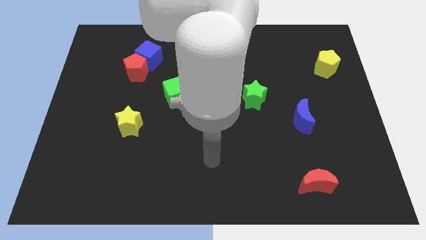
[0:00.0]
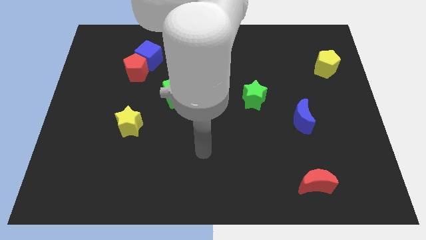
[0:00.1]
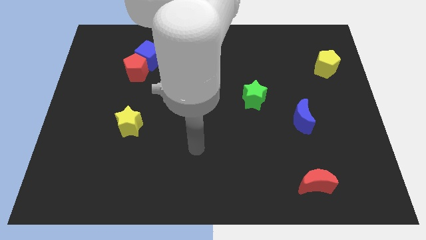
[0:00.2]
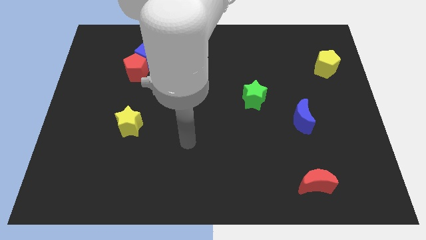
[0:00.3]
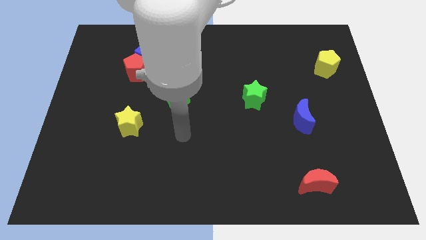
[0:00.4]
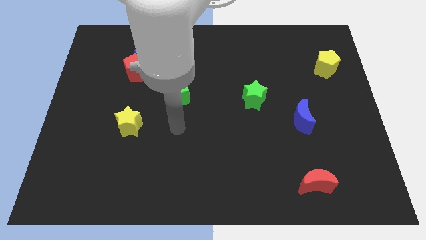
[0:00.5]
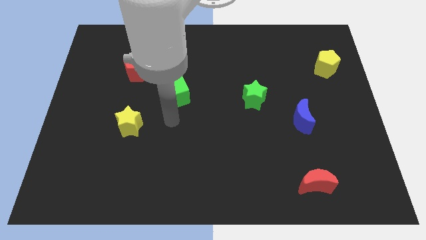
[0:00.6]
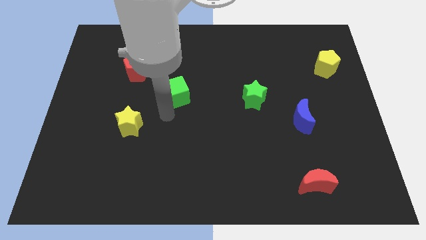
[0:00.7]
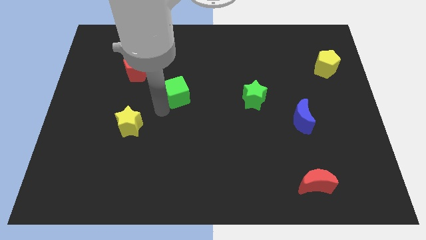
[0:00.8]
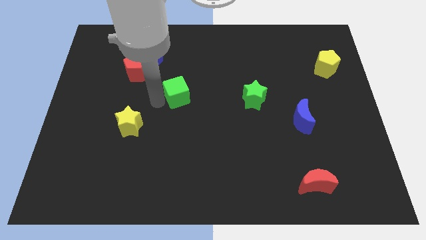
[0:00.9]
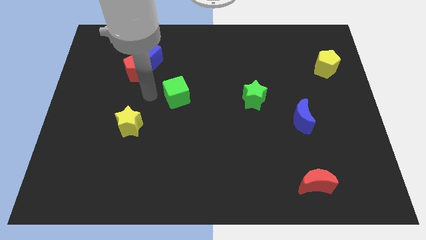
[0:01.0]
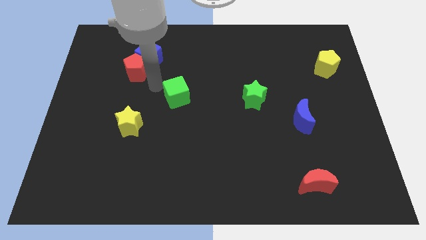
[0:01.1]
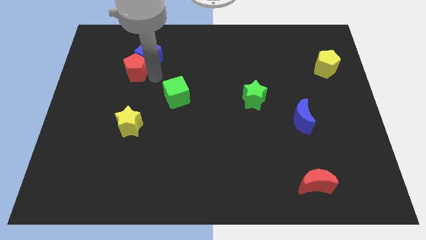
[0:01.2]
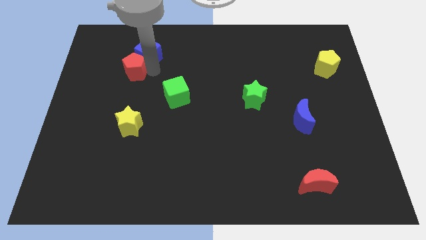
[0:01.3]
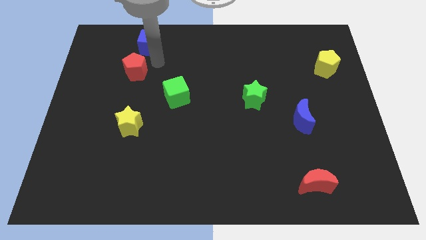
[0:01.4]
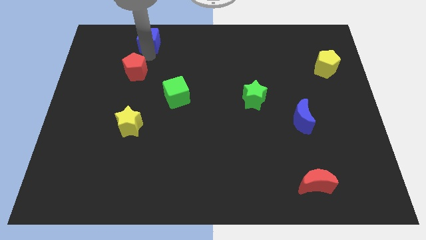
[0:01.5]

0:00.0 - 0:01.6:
pull the red pentagon apart from the blue cube

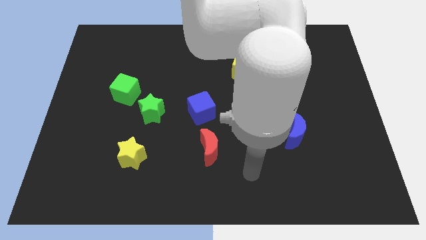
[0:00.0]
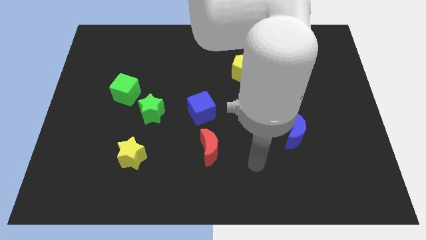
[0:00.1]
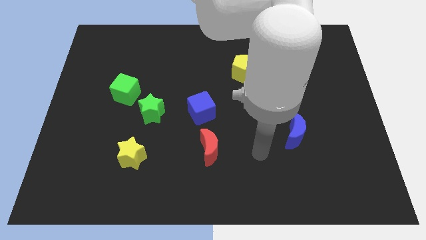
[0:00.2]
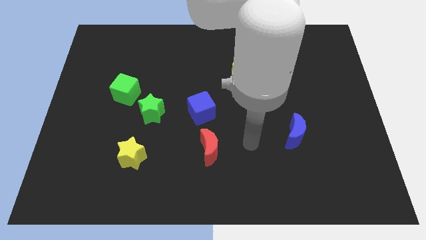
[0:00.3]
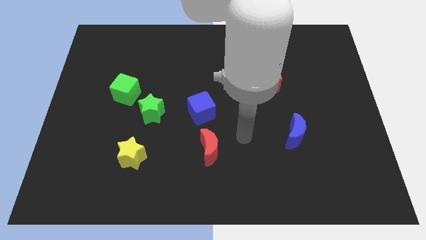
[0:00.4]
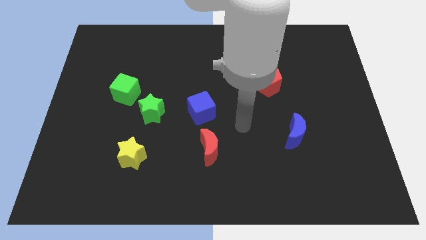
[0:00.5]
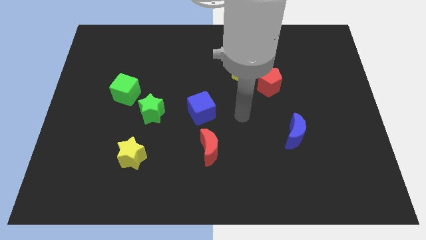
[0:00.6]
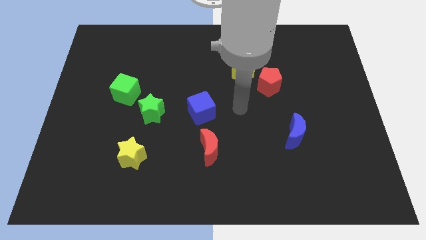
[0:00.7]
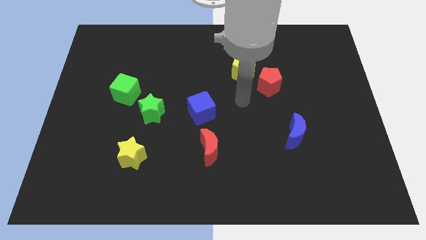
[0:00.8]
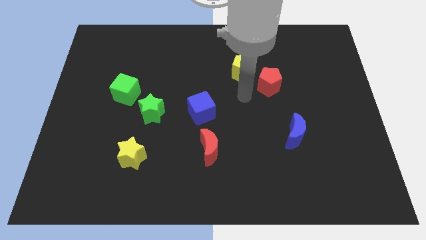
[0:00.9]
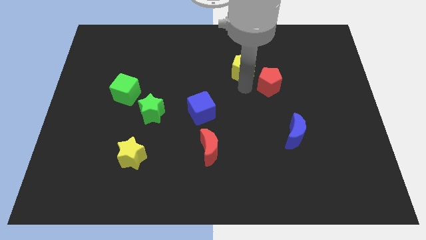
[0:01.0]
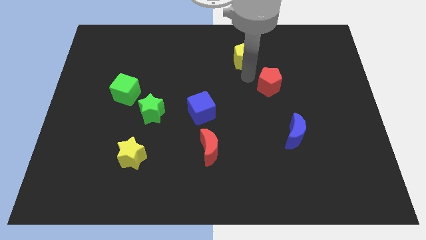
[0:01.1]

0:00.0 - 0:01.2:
move the red pentagon away from the yellow pentagon

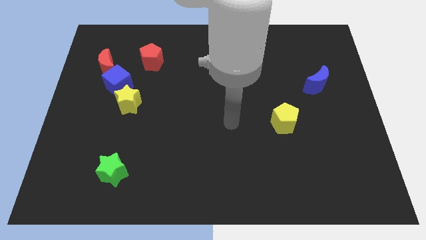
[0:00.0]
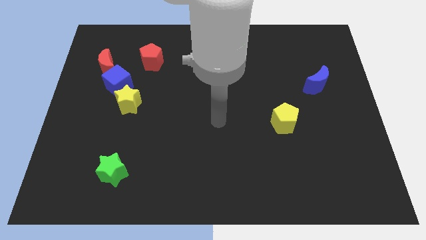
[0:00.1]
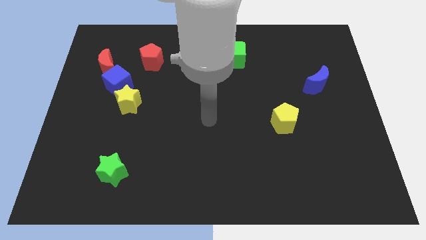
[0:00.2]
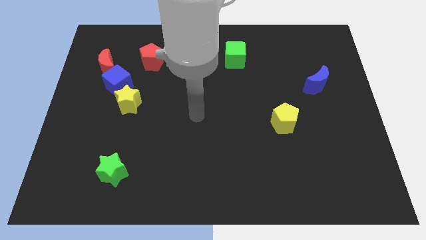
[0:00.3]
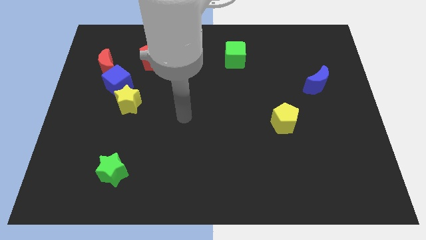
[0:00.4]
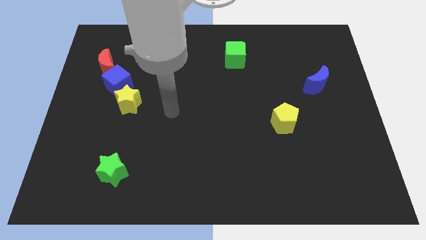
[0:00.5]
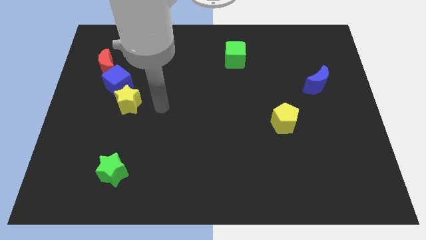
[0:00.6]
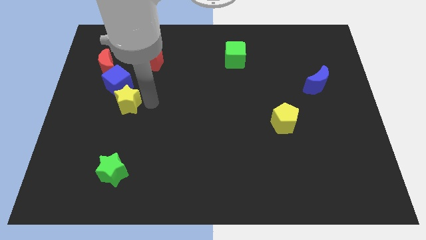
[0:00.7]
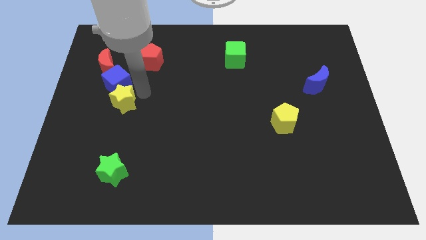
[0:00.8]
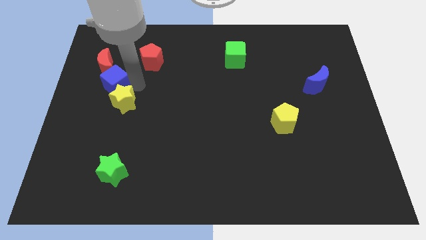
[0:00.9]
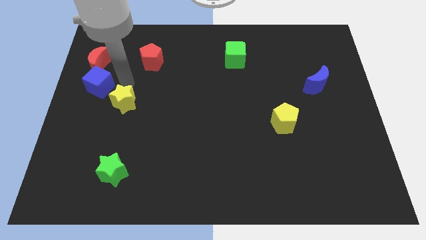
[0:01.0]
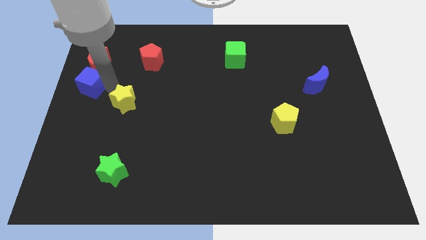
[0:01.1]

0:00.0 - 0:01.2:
separate the yellow star from the blue cube

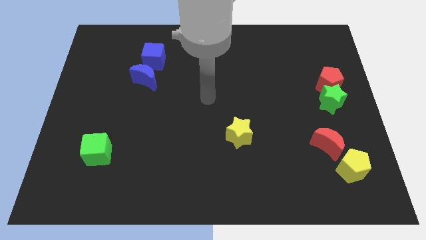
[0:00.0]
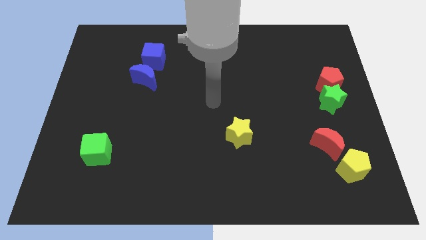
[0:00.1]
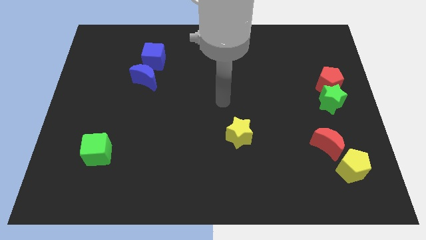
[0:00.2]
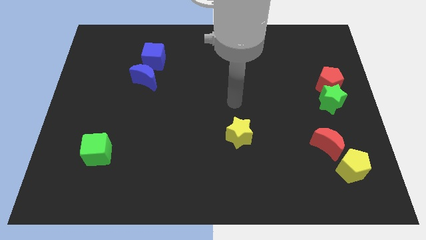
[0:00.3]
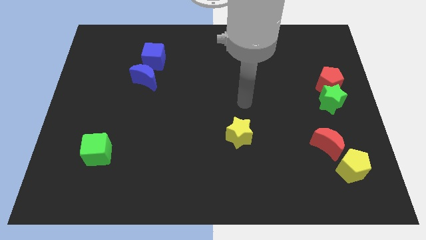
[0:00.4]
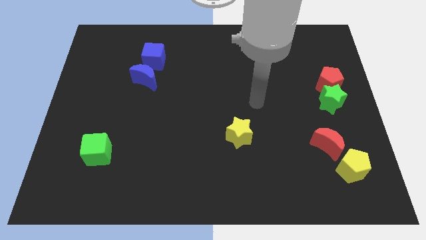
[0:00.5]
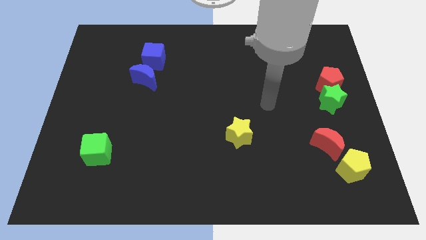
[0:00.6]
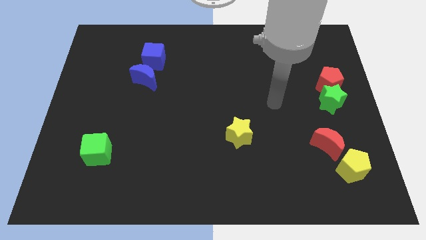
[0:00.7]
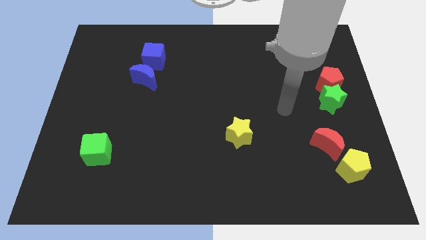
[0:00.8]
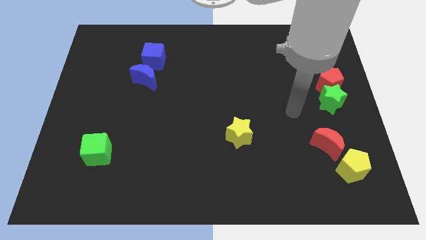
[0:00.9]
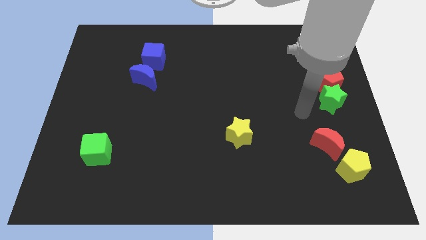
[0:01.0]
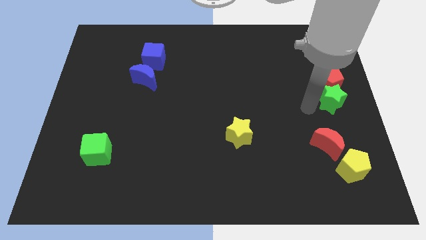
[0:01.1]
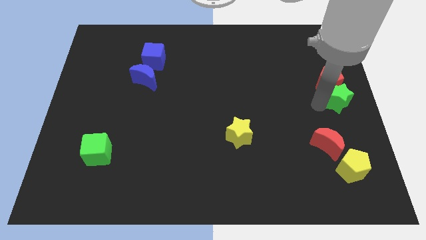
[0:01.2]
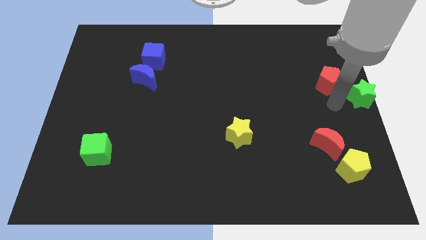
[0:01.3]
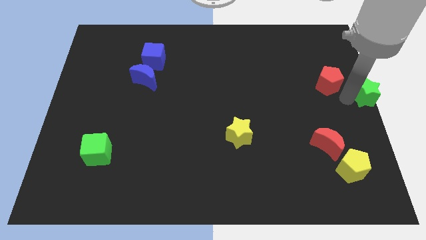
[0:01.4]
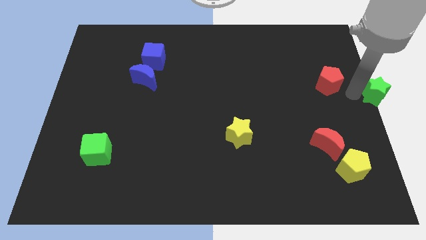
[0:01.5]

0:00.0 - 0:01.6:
move the red pentagon away from the green star

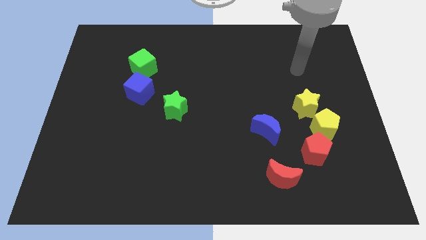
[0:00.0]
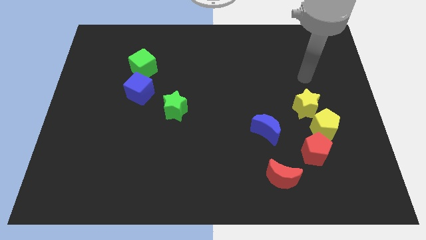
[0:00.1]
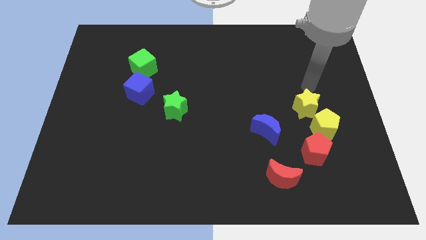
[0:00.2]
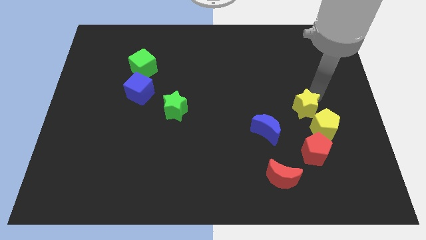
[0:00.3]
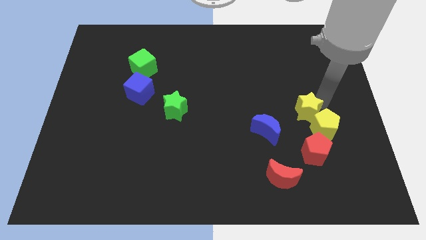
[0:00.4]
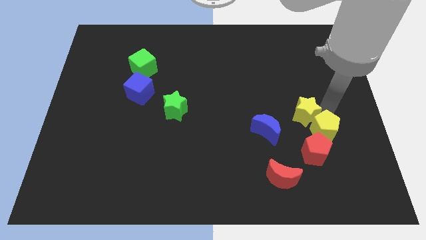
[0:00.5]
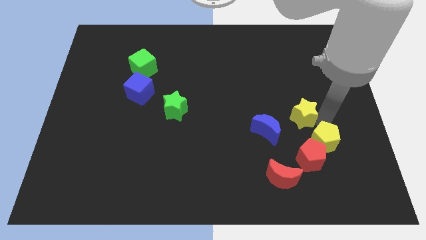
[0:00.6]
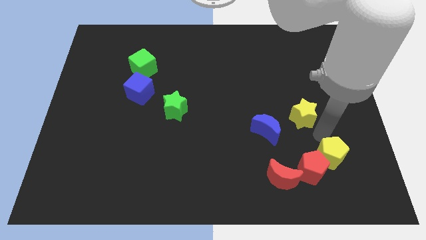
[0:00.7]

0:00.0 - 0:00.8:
separate the yellow star from the yellow pentagon

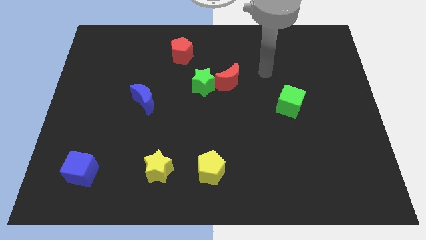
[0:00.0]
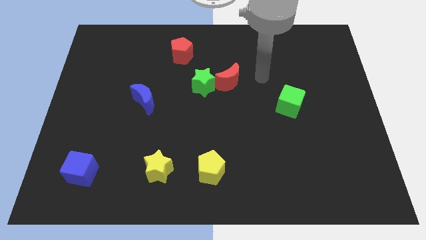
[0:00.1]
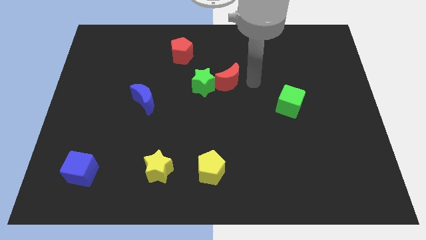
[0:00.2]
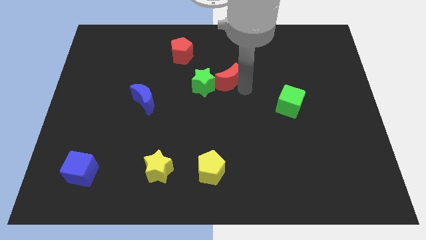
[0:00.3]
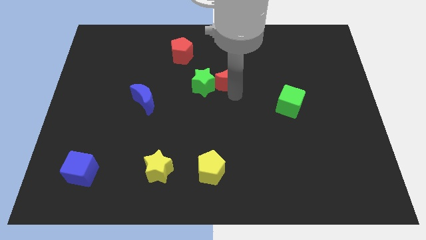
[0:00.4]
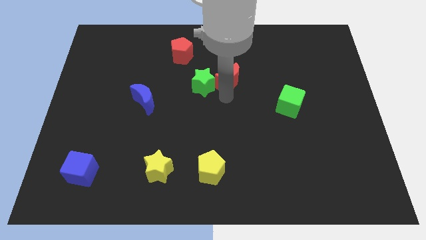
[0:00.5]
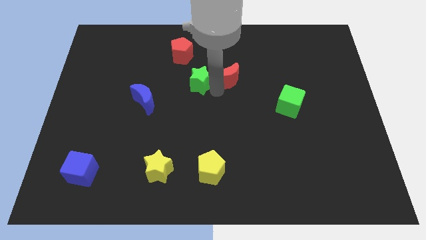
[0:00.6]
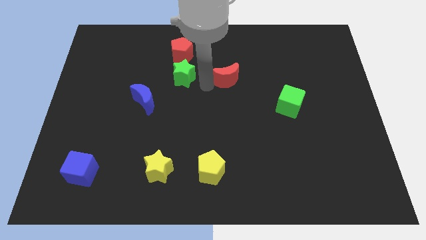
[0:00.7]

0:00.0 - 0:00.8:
move the red moon away from the green star

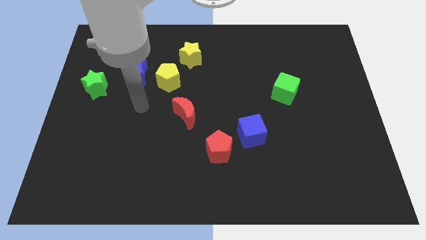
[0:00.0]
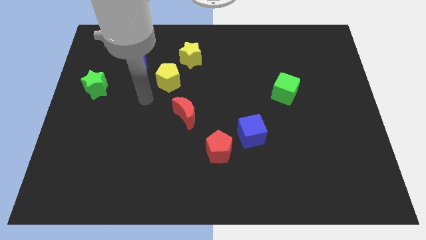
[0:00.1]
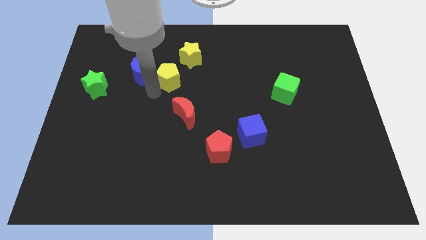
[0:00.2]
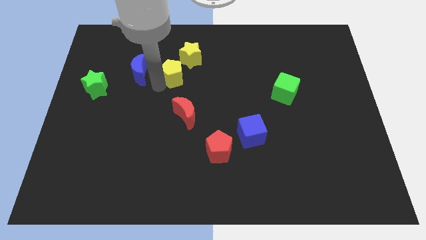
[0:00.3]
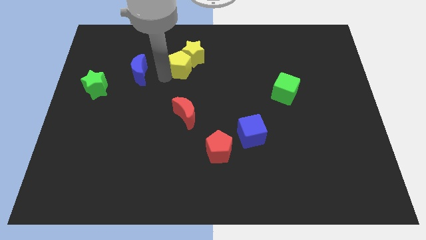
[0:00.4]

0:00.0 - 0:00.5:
separate the blue moon from the yellow pentagon

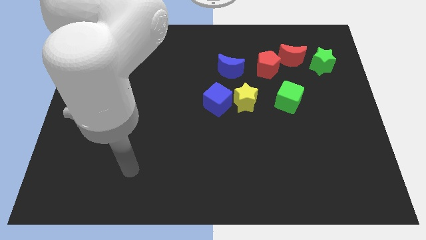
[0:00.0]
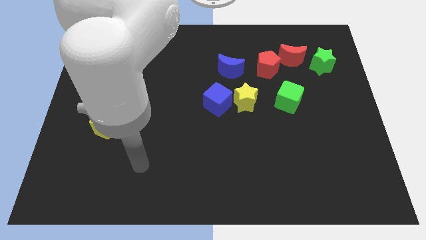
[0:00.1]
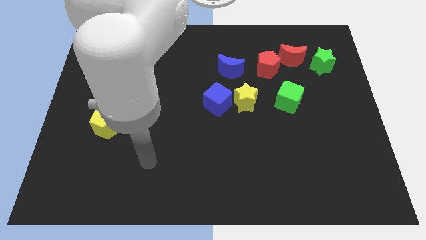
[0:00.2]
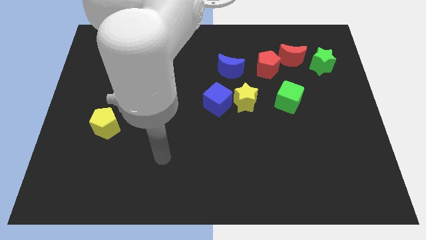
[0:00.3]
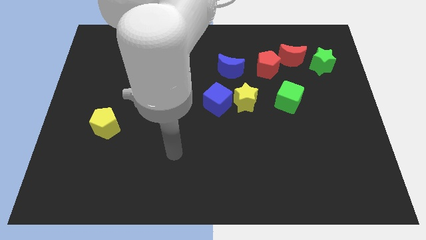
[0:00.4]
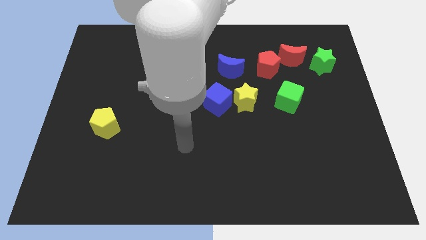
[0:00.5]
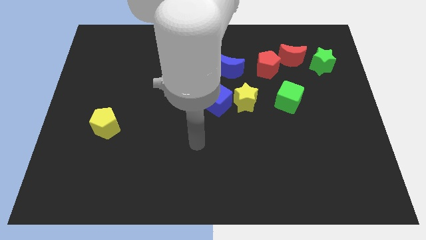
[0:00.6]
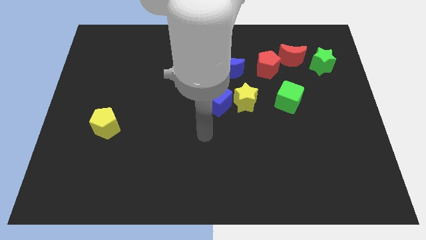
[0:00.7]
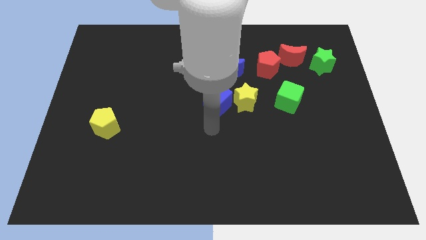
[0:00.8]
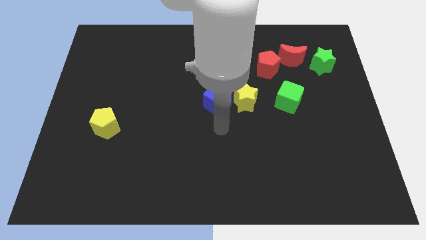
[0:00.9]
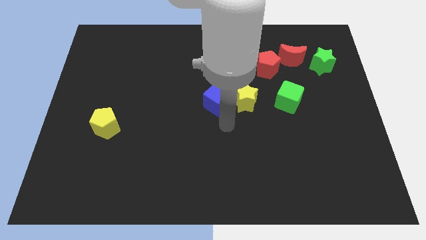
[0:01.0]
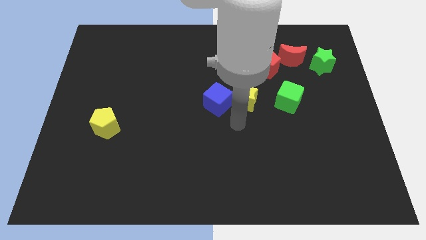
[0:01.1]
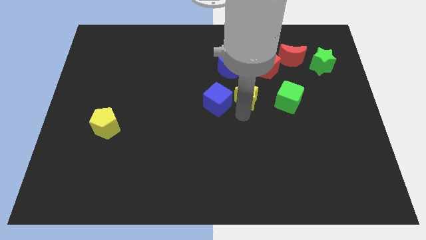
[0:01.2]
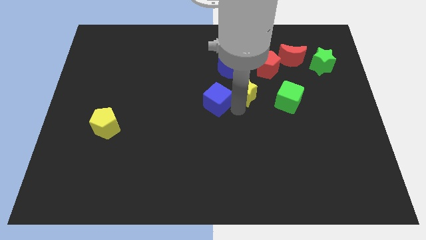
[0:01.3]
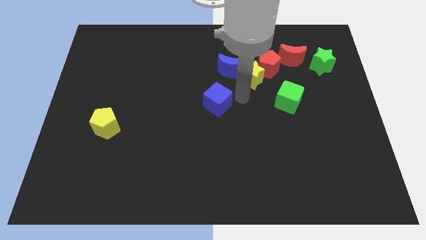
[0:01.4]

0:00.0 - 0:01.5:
separate the blue cube from the yellow star

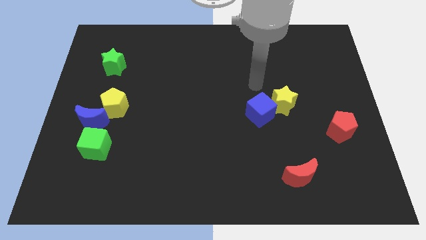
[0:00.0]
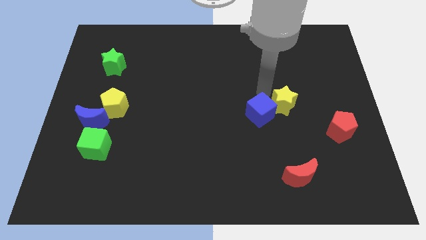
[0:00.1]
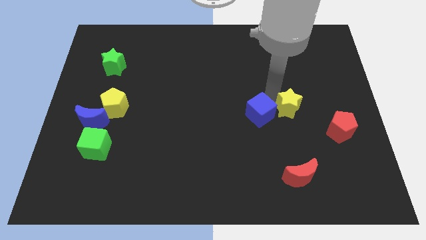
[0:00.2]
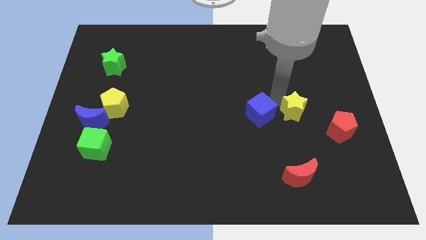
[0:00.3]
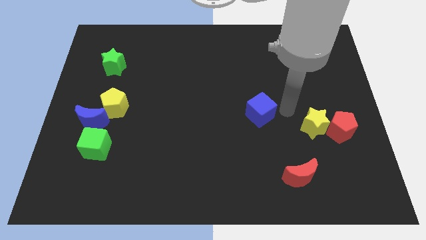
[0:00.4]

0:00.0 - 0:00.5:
move the blue cube away from the yellow star
